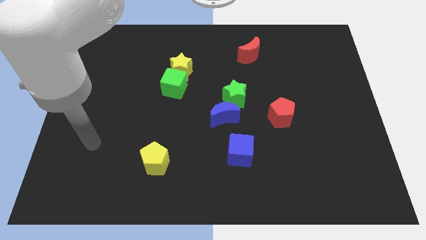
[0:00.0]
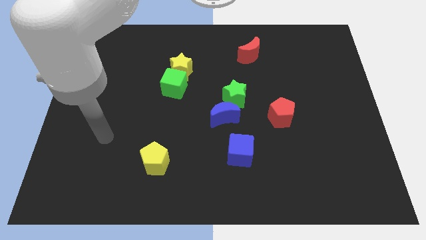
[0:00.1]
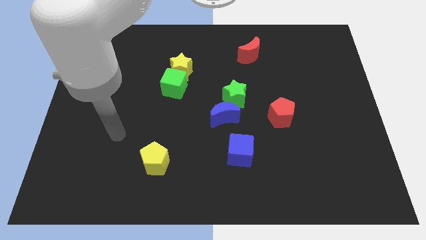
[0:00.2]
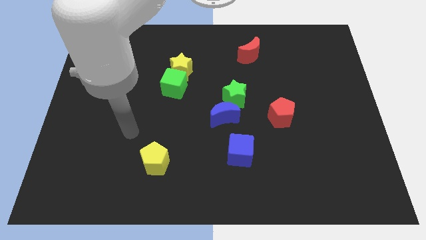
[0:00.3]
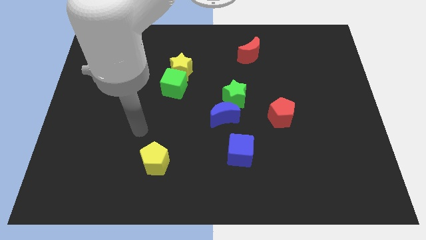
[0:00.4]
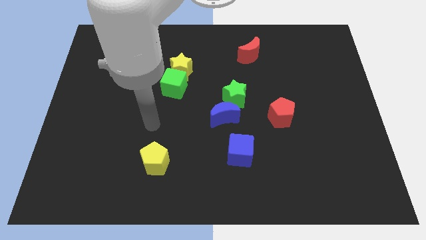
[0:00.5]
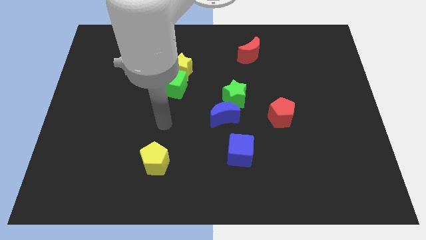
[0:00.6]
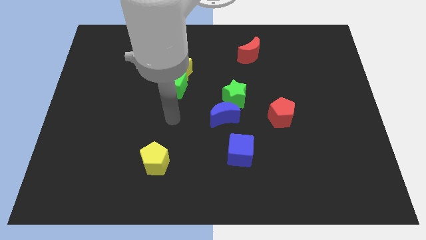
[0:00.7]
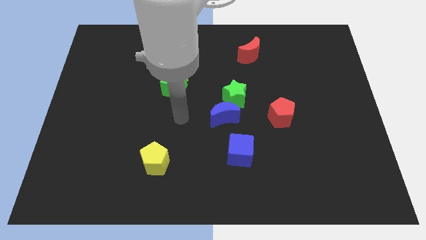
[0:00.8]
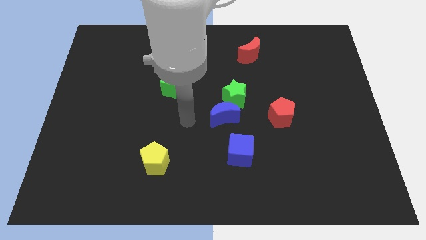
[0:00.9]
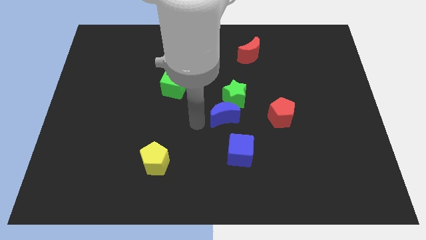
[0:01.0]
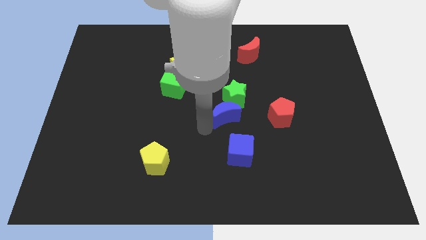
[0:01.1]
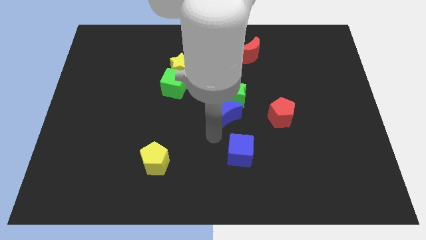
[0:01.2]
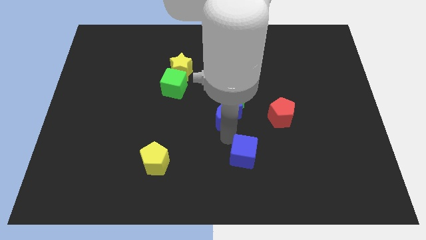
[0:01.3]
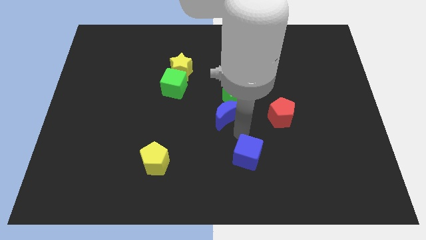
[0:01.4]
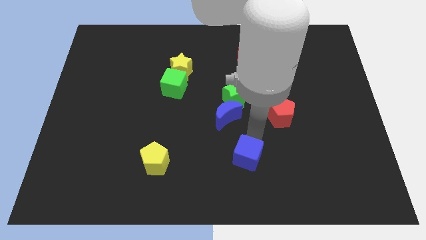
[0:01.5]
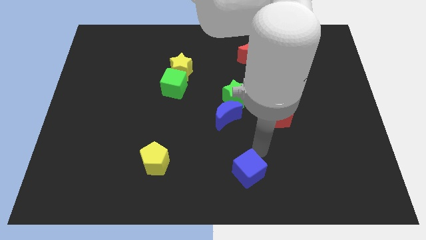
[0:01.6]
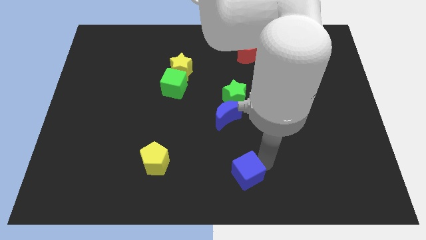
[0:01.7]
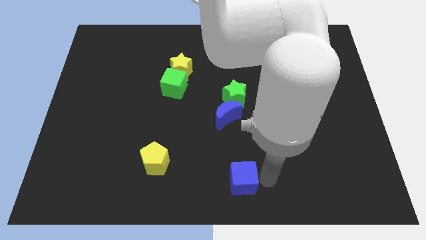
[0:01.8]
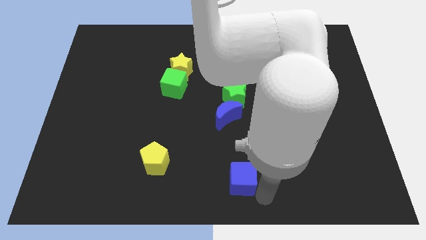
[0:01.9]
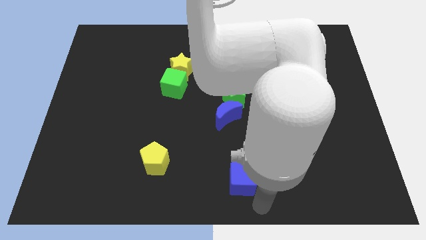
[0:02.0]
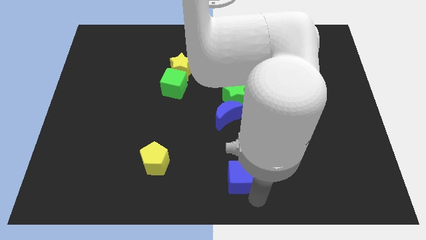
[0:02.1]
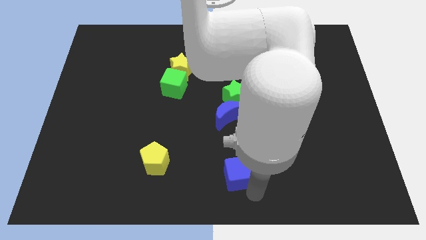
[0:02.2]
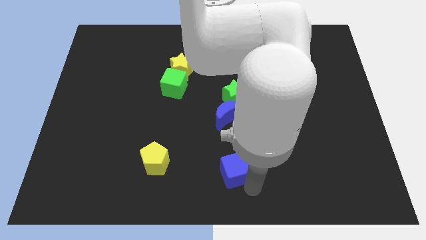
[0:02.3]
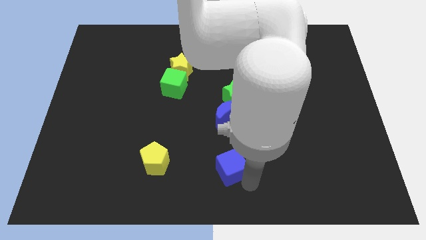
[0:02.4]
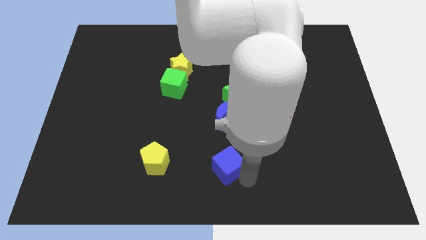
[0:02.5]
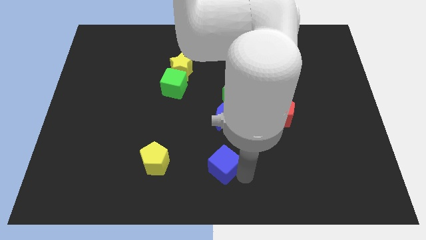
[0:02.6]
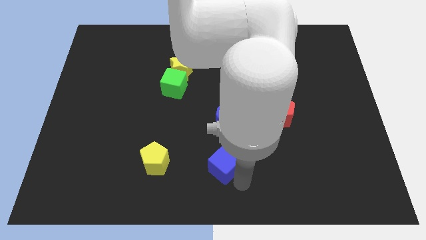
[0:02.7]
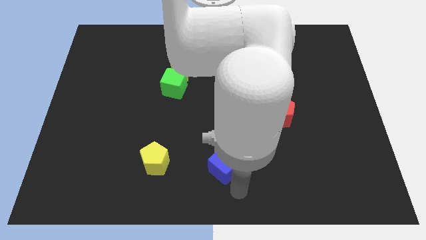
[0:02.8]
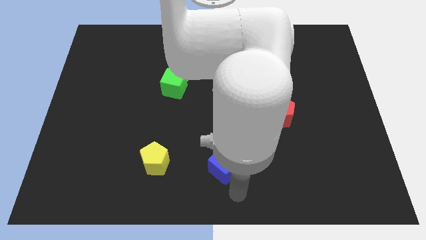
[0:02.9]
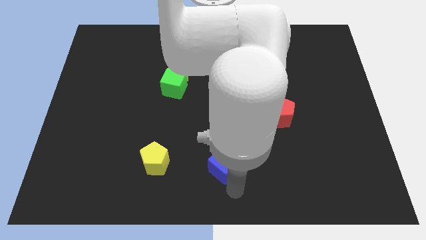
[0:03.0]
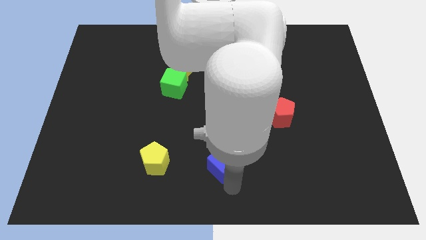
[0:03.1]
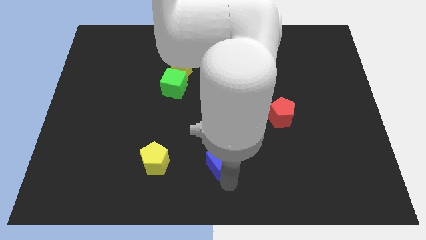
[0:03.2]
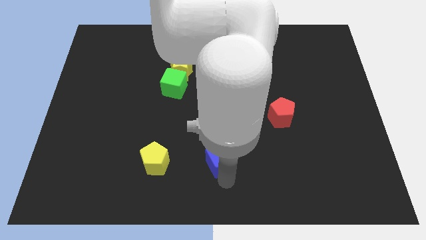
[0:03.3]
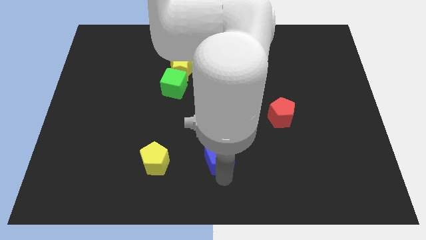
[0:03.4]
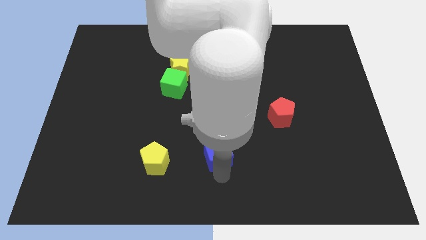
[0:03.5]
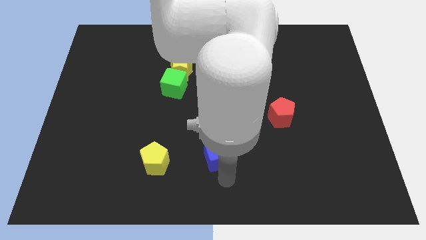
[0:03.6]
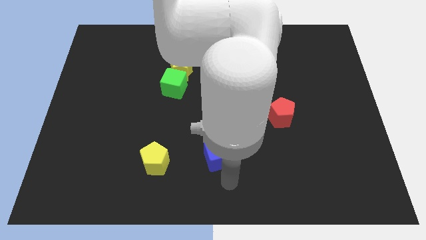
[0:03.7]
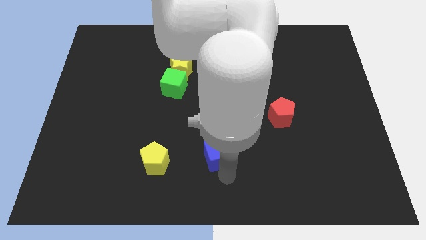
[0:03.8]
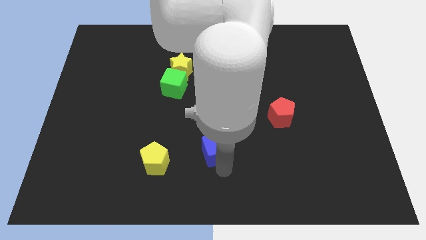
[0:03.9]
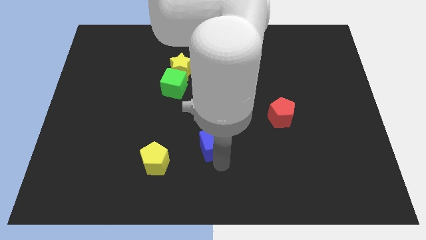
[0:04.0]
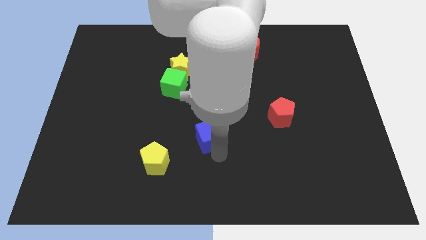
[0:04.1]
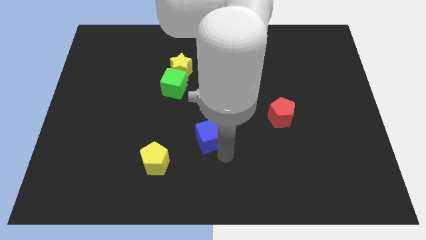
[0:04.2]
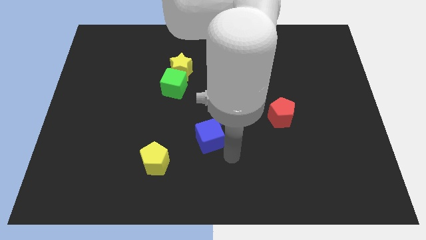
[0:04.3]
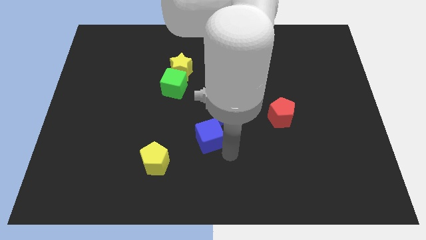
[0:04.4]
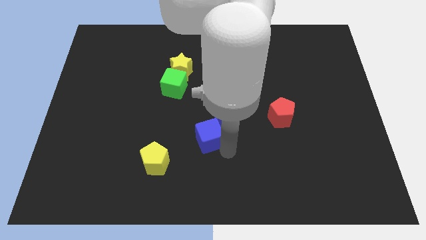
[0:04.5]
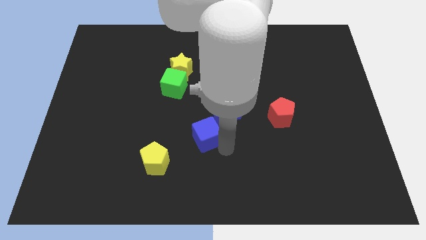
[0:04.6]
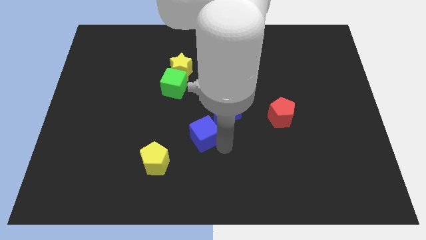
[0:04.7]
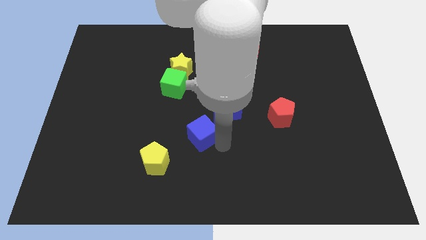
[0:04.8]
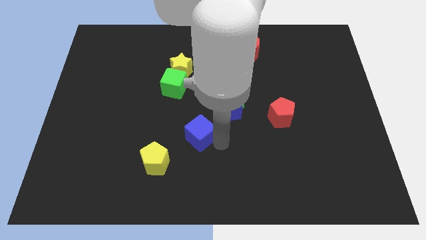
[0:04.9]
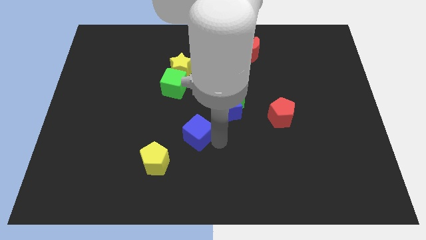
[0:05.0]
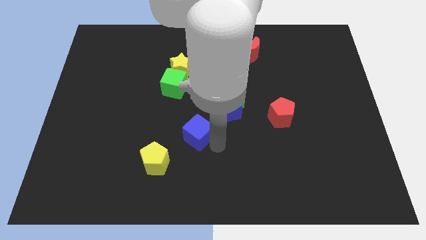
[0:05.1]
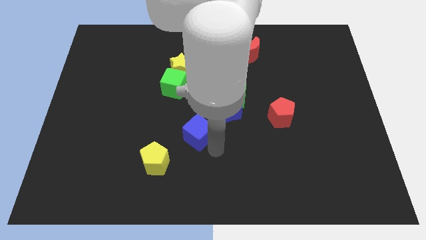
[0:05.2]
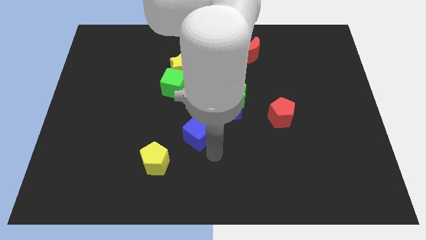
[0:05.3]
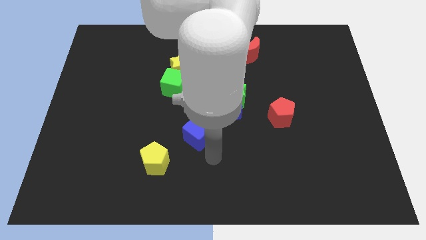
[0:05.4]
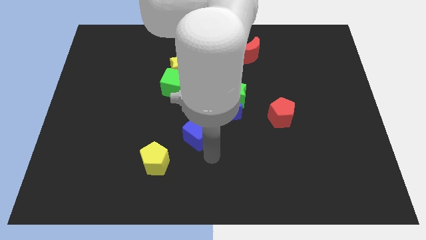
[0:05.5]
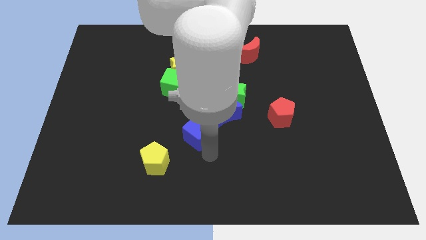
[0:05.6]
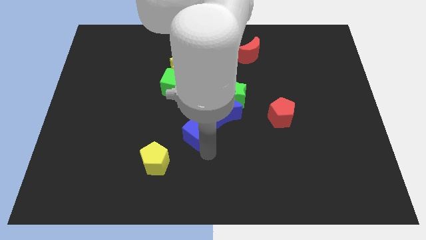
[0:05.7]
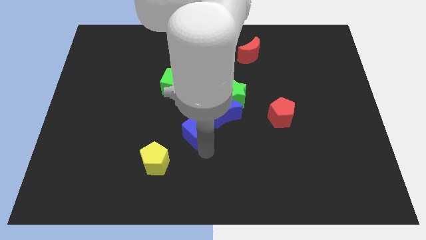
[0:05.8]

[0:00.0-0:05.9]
slide the blue cube to the left of the blue moon

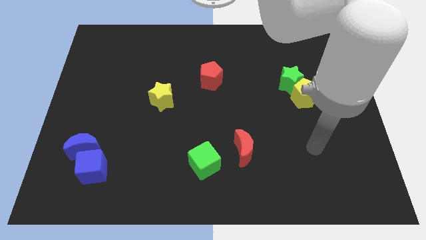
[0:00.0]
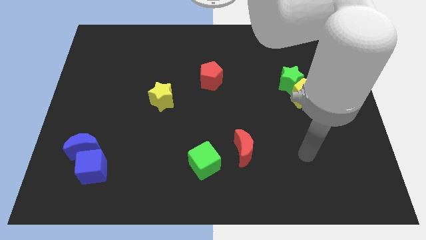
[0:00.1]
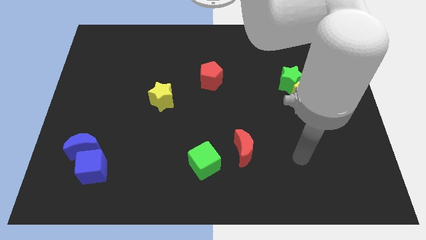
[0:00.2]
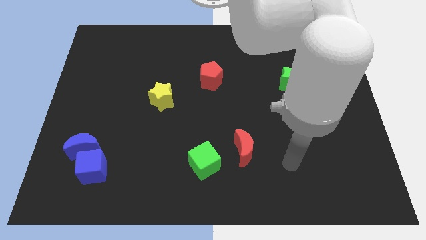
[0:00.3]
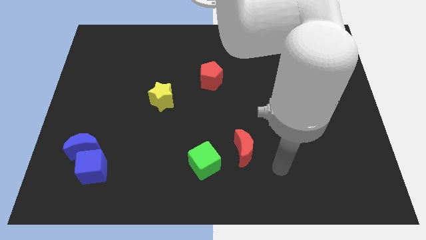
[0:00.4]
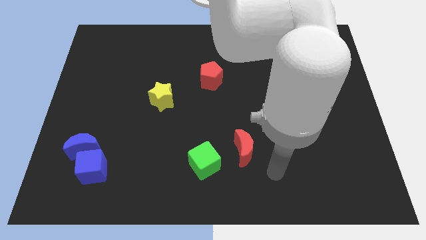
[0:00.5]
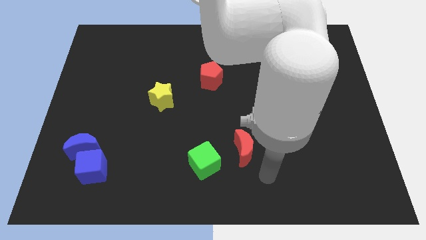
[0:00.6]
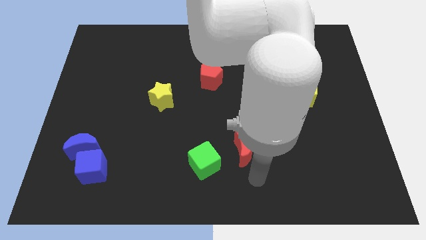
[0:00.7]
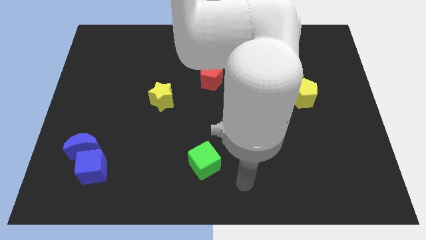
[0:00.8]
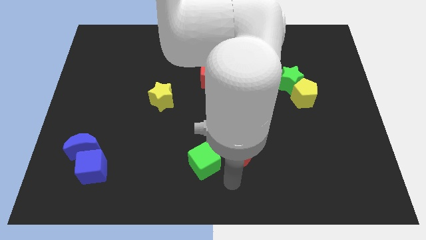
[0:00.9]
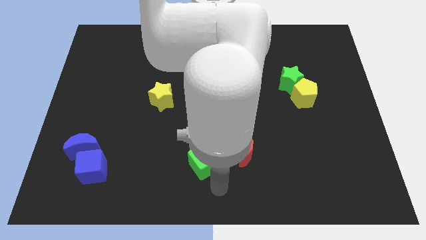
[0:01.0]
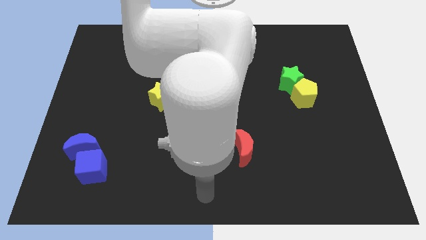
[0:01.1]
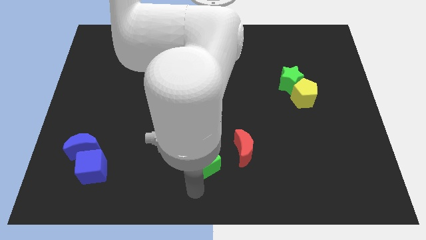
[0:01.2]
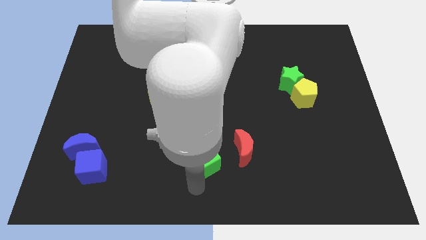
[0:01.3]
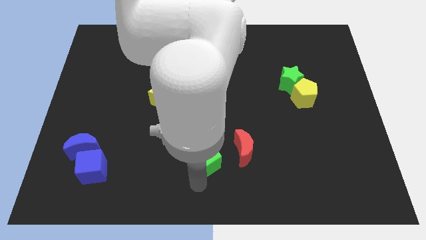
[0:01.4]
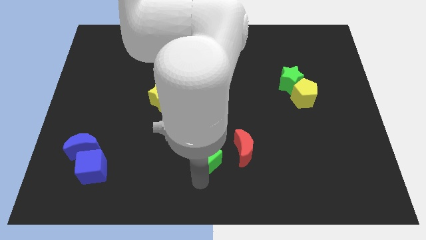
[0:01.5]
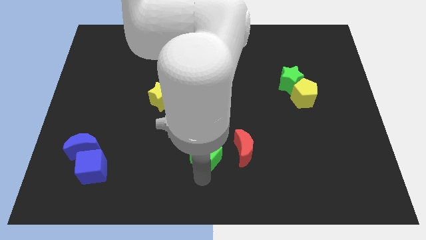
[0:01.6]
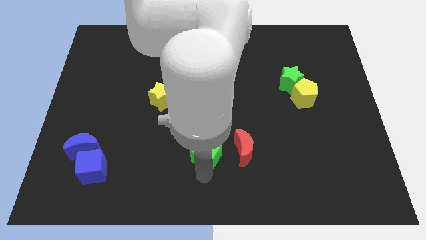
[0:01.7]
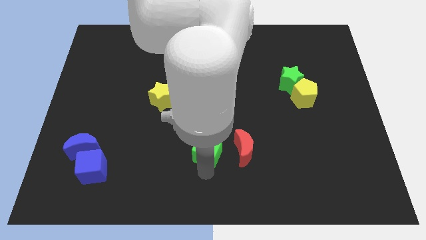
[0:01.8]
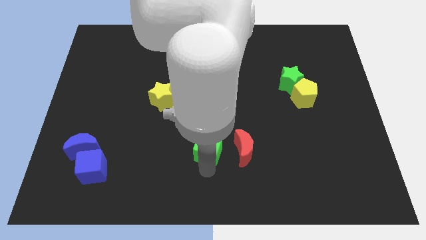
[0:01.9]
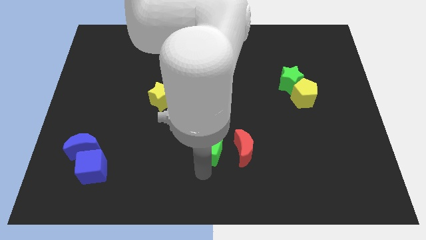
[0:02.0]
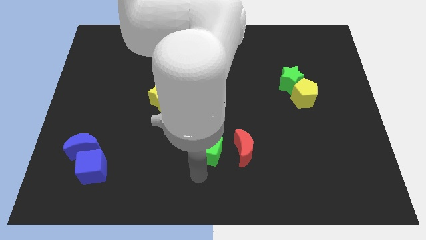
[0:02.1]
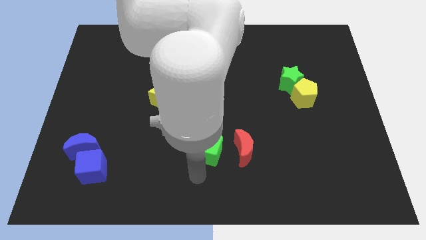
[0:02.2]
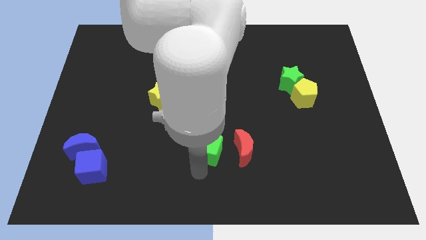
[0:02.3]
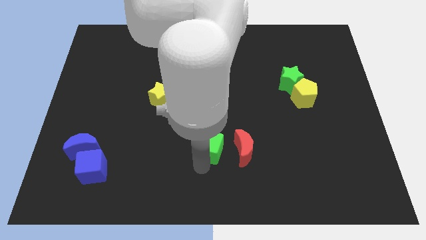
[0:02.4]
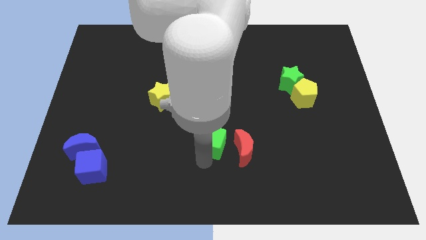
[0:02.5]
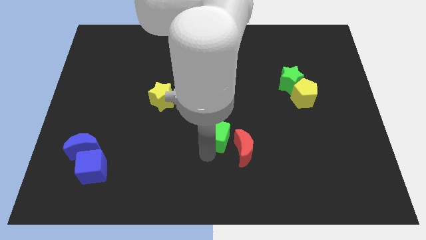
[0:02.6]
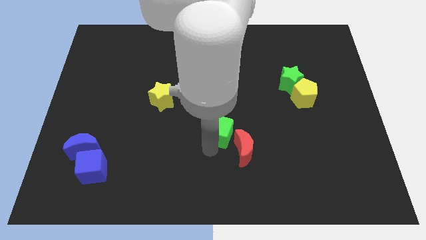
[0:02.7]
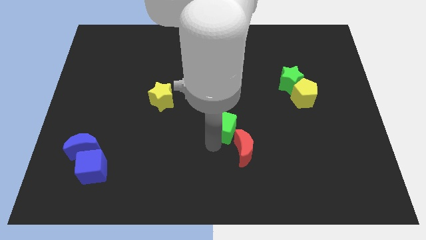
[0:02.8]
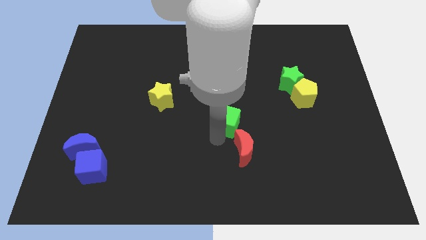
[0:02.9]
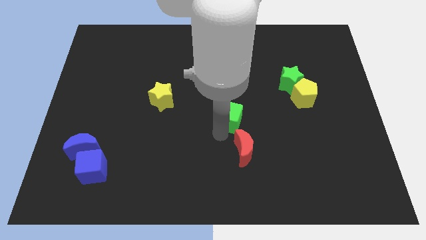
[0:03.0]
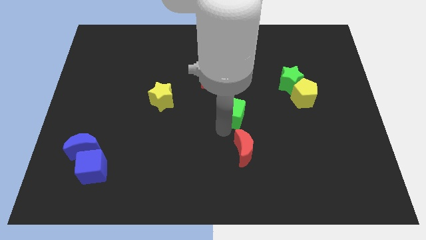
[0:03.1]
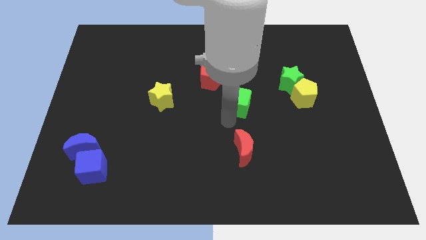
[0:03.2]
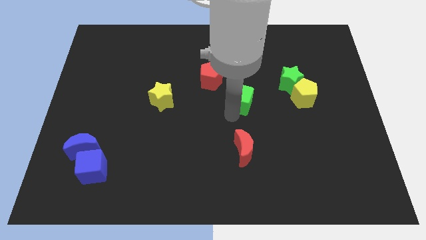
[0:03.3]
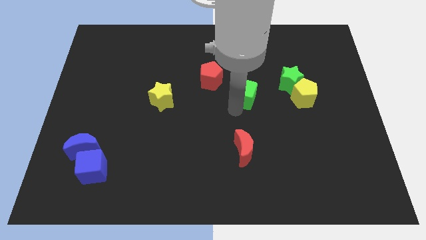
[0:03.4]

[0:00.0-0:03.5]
put the green cube to the left of the green star
